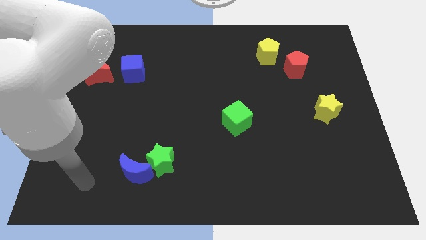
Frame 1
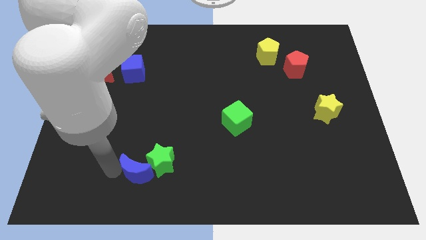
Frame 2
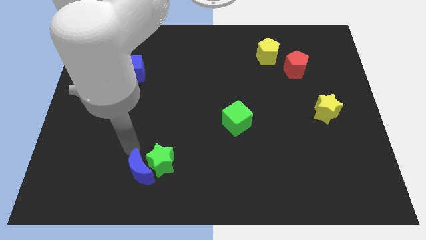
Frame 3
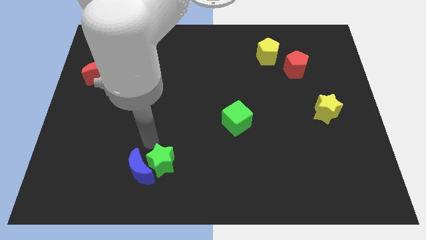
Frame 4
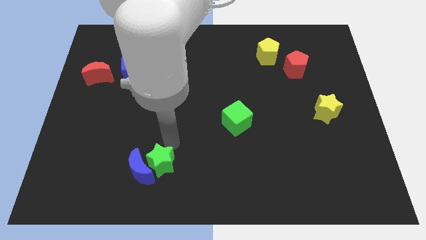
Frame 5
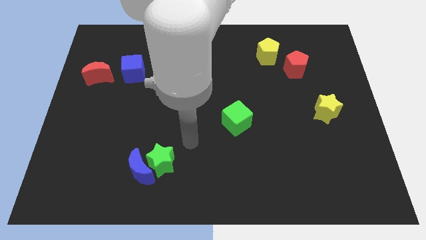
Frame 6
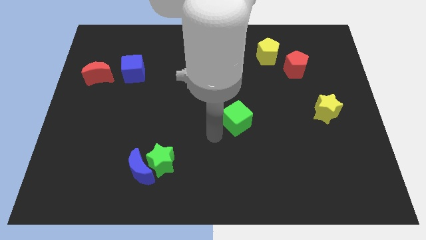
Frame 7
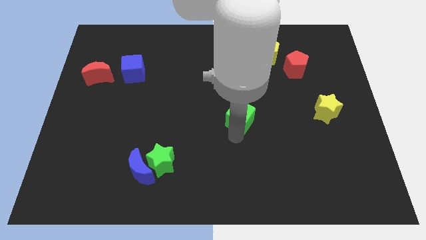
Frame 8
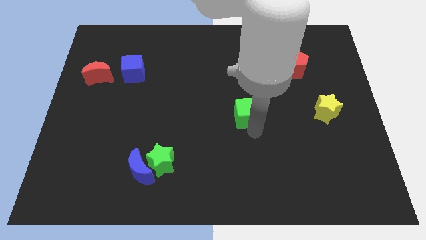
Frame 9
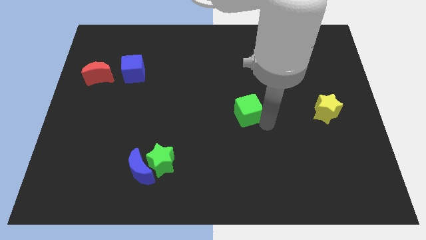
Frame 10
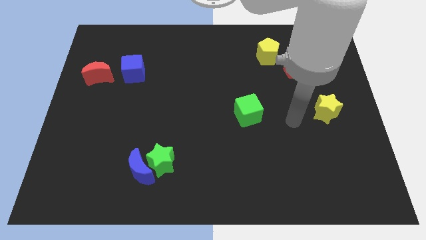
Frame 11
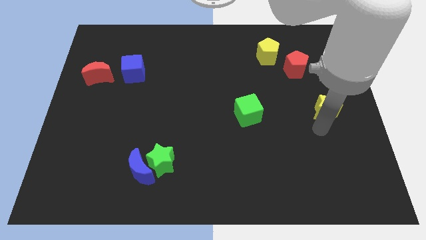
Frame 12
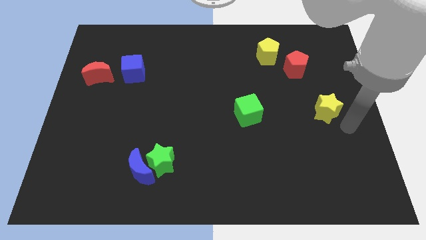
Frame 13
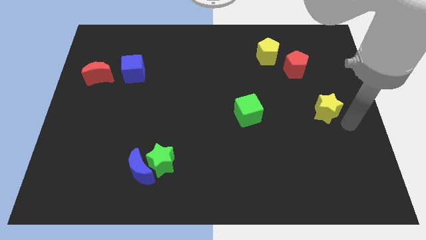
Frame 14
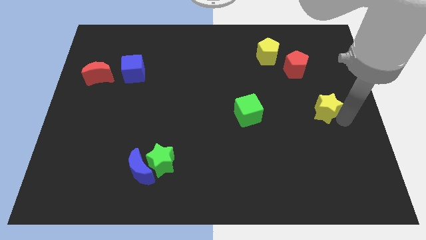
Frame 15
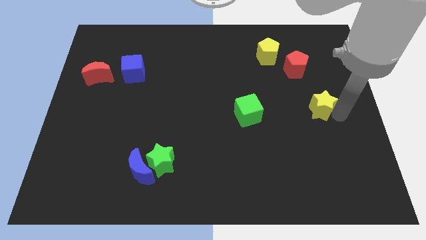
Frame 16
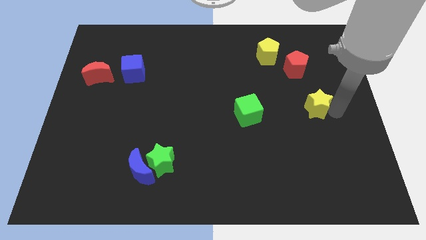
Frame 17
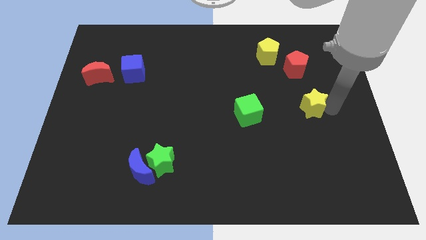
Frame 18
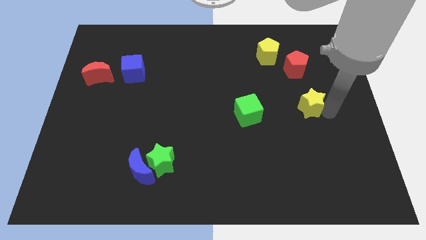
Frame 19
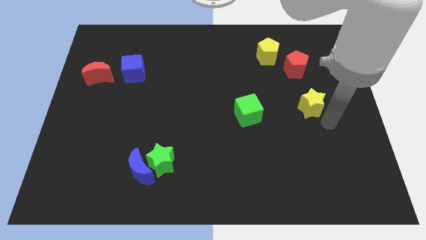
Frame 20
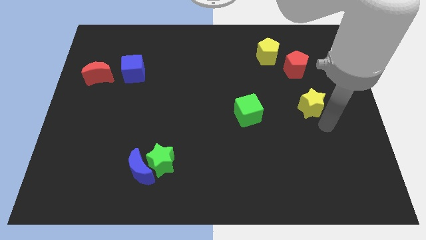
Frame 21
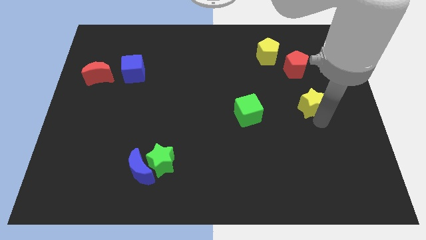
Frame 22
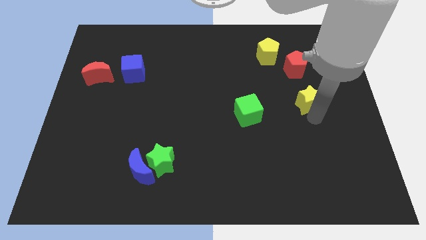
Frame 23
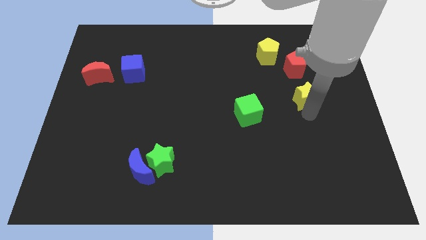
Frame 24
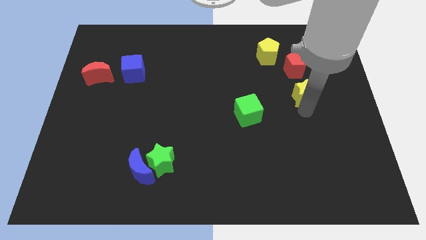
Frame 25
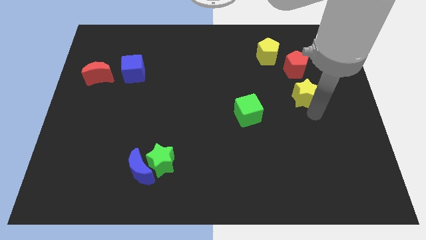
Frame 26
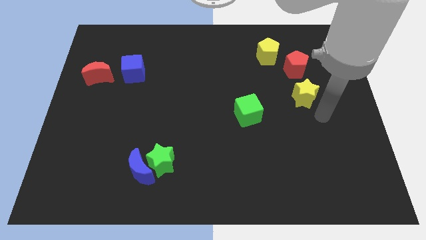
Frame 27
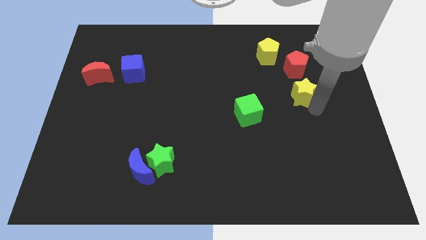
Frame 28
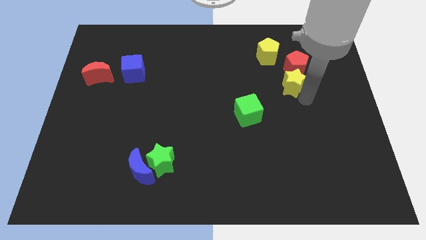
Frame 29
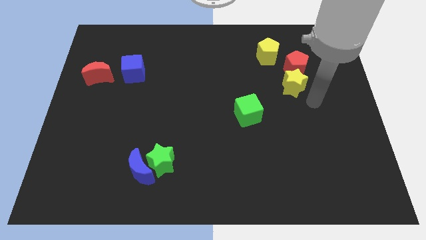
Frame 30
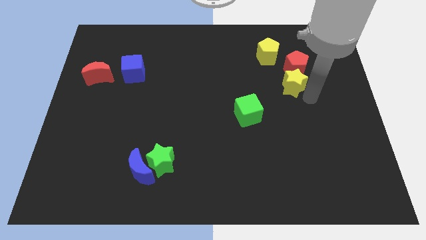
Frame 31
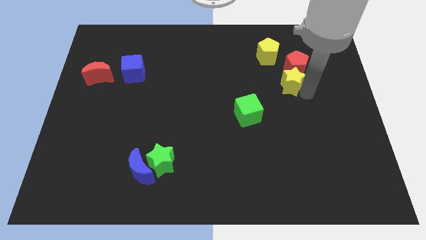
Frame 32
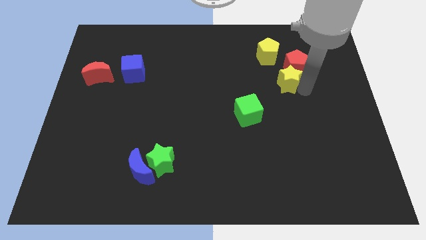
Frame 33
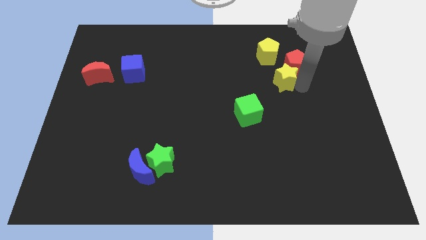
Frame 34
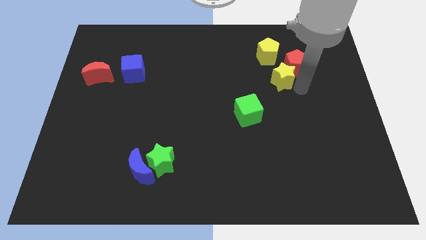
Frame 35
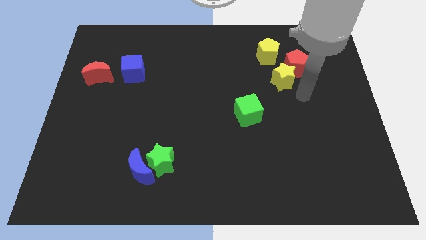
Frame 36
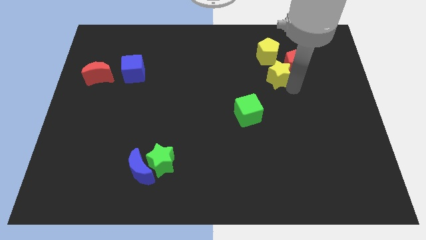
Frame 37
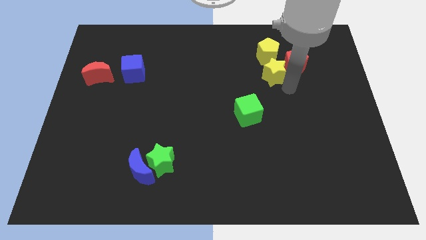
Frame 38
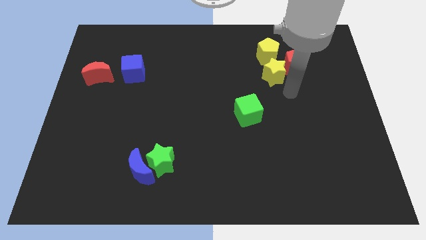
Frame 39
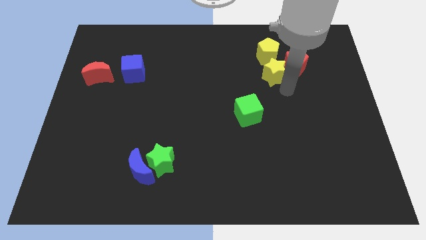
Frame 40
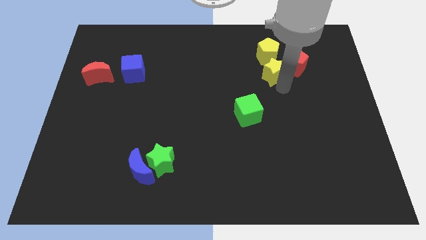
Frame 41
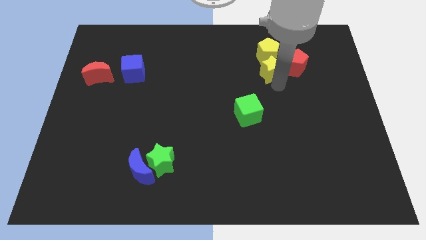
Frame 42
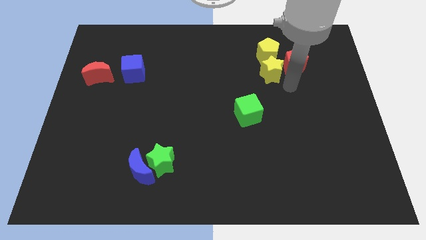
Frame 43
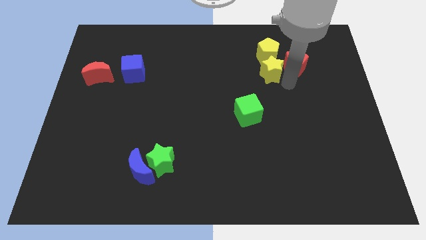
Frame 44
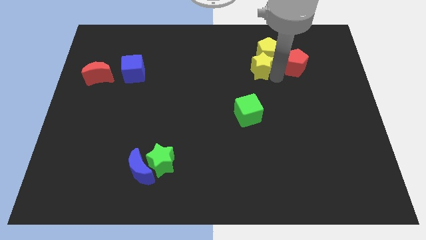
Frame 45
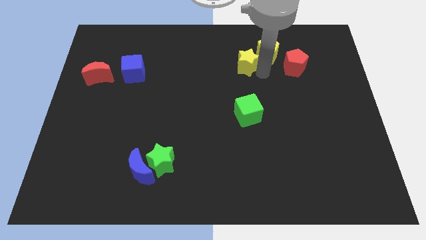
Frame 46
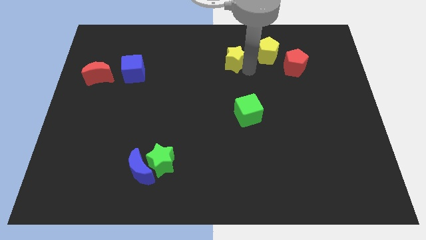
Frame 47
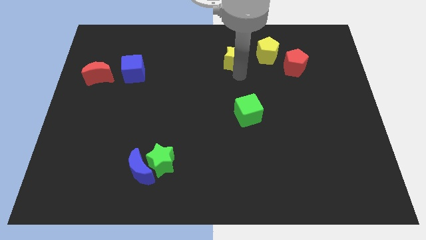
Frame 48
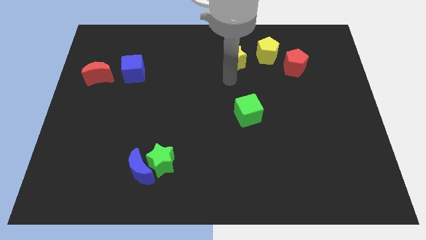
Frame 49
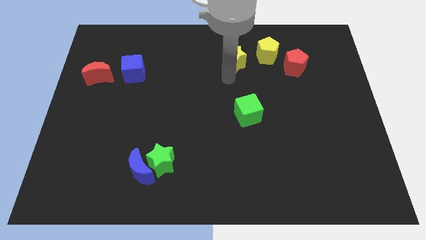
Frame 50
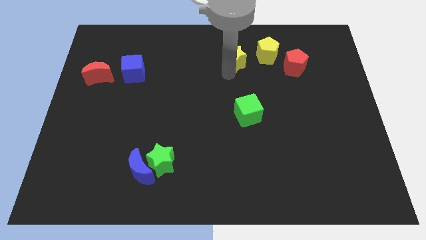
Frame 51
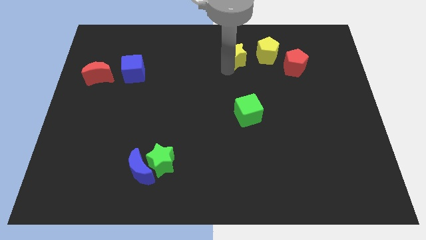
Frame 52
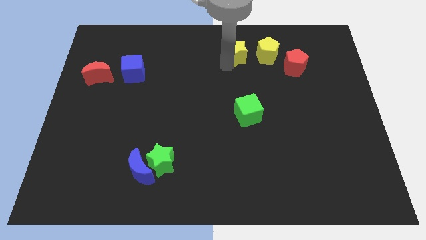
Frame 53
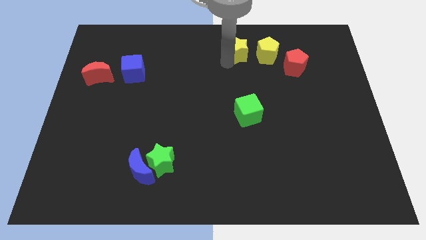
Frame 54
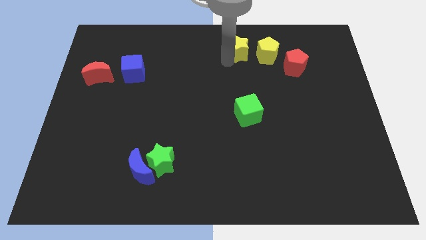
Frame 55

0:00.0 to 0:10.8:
move the yellow star to the towards your base
